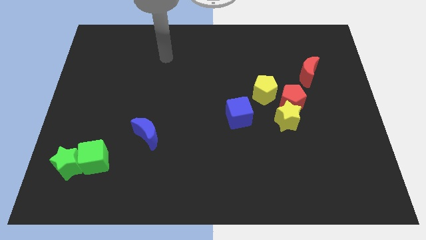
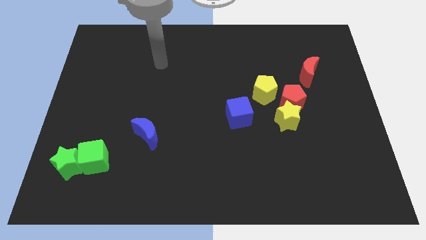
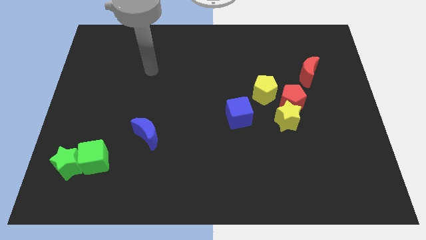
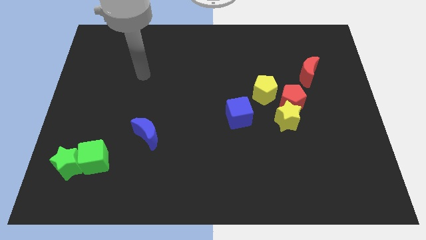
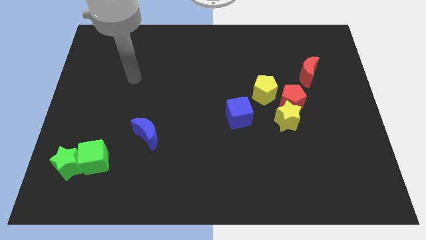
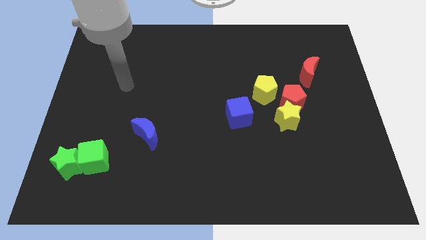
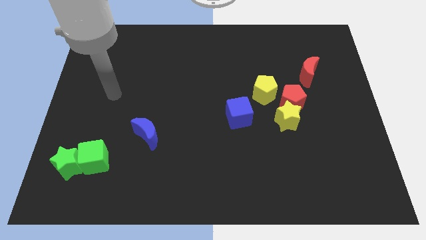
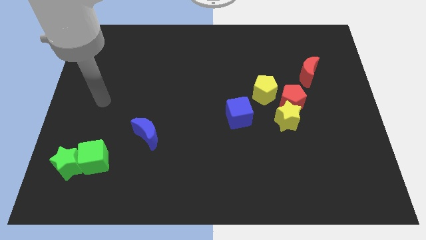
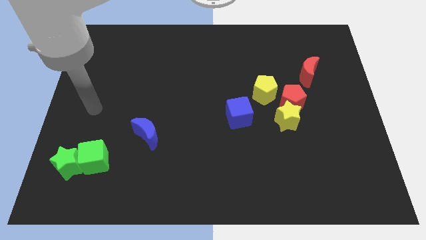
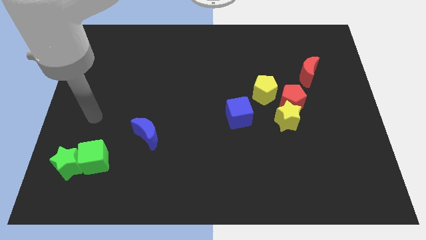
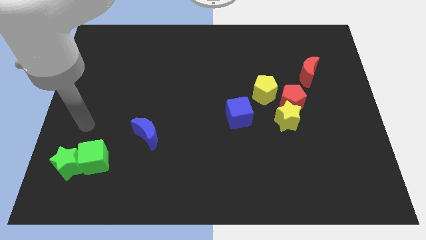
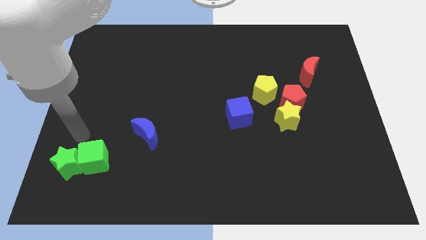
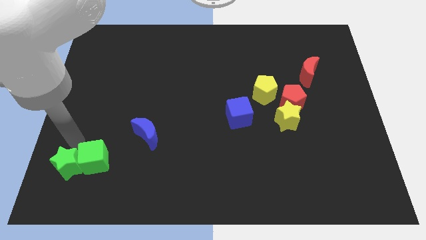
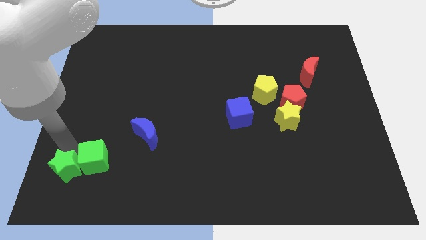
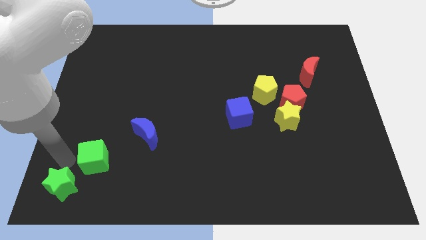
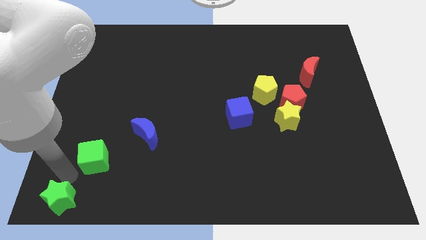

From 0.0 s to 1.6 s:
pull the green cube apart from the green star

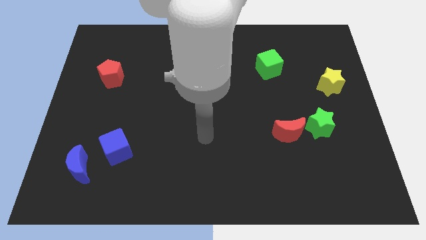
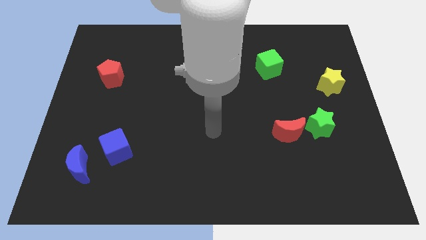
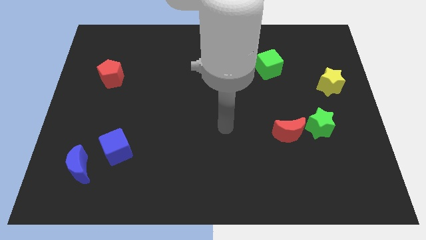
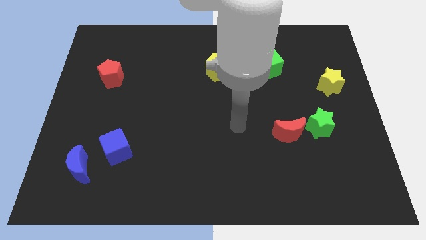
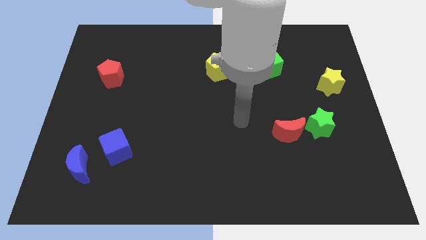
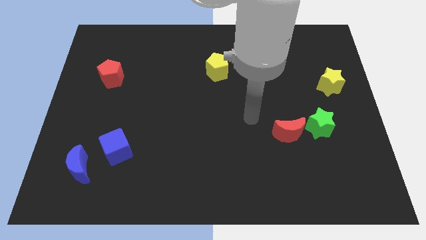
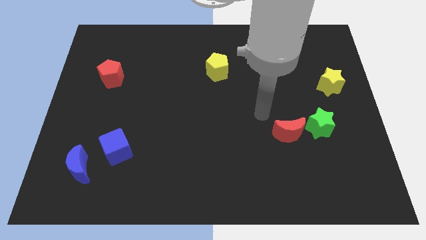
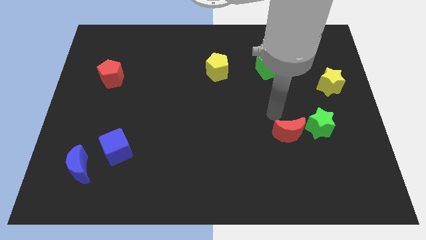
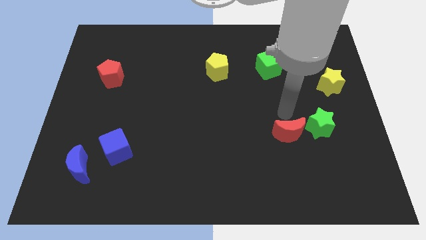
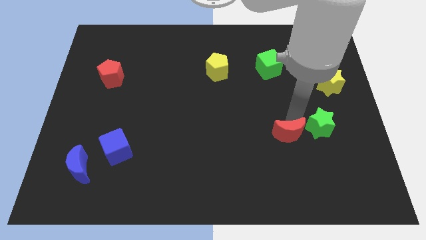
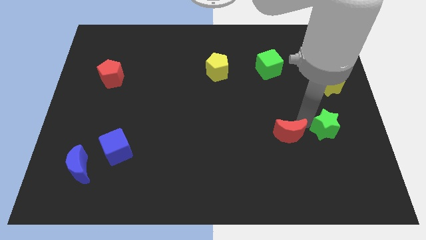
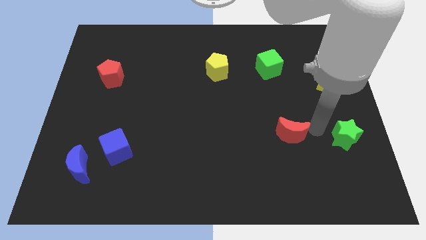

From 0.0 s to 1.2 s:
pull the red moon apart from the green star

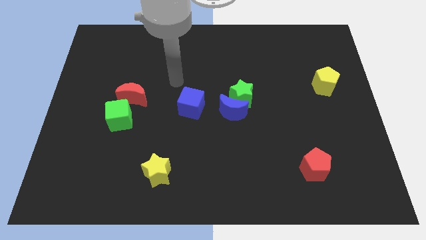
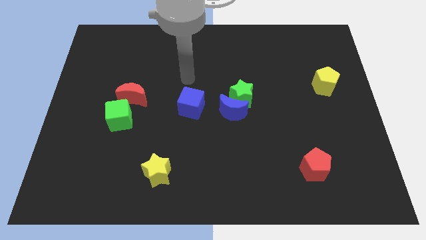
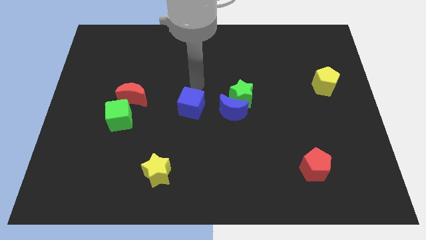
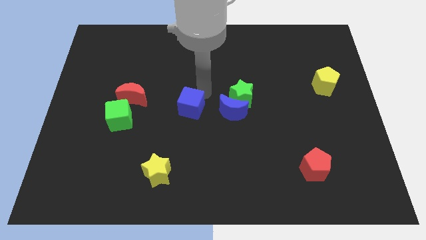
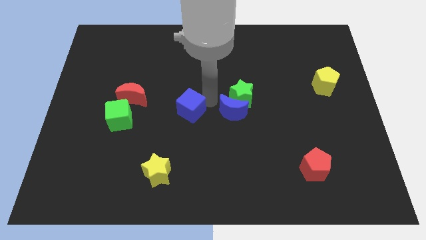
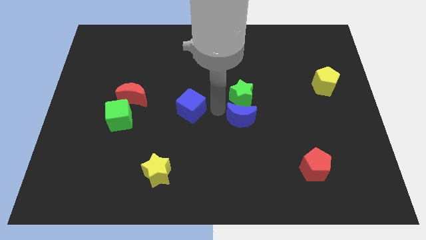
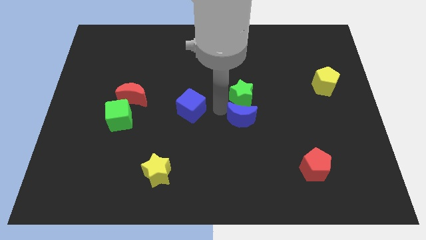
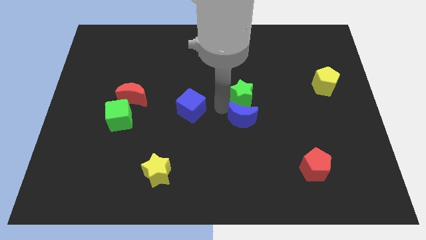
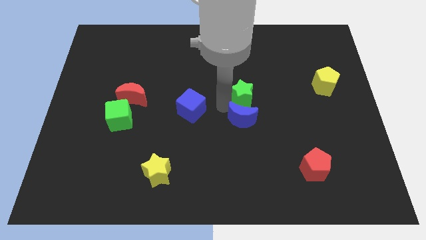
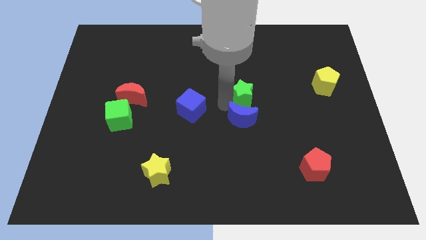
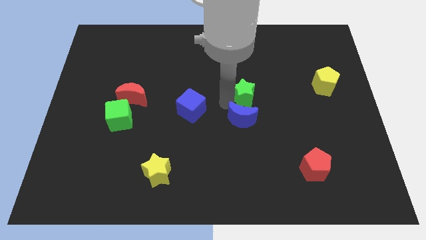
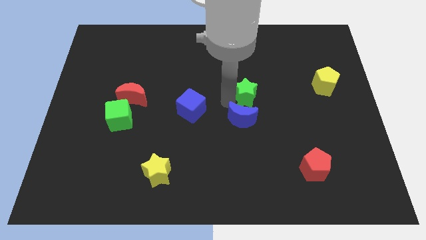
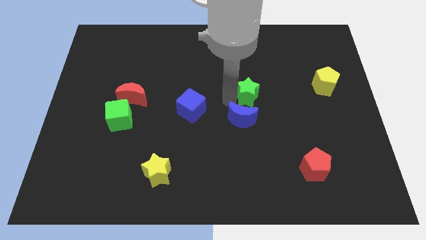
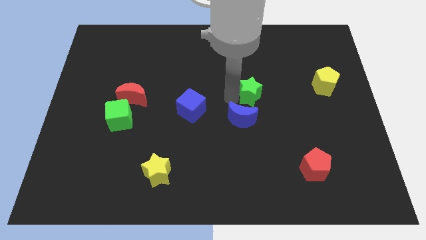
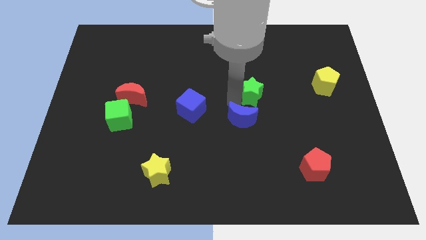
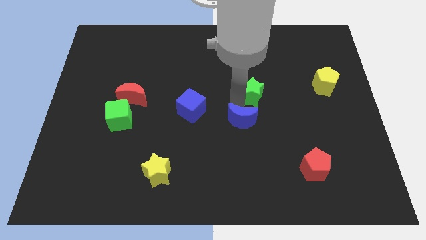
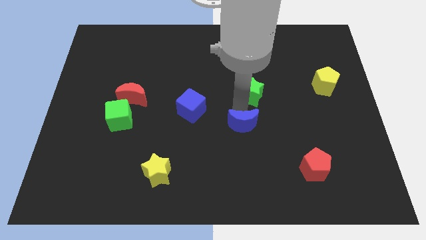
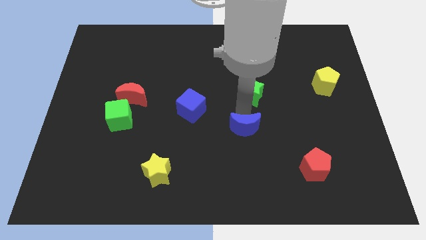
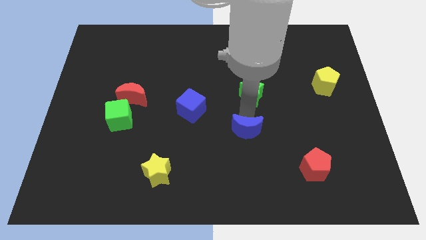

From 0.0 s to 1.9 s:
separate the green star from the blue moon

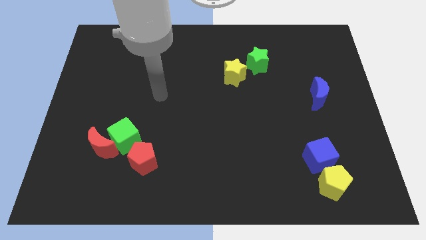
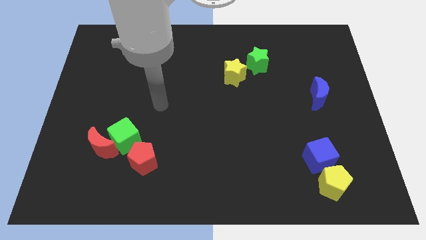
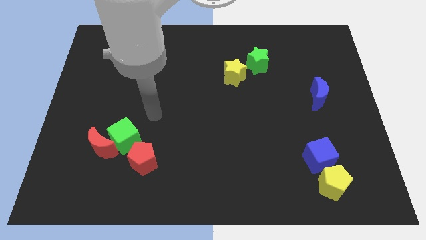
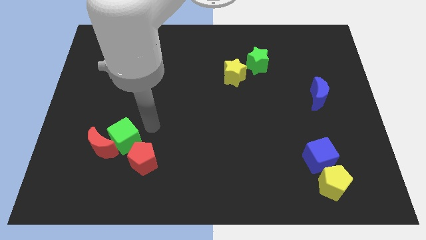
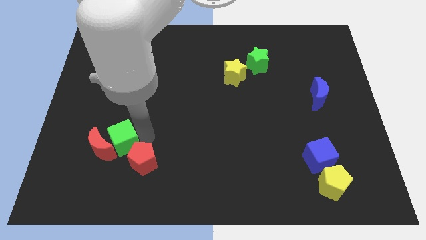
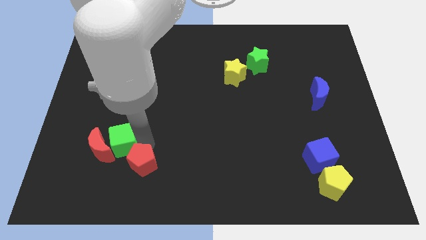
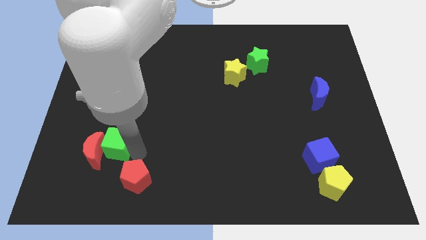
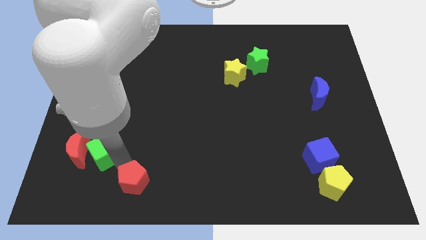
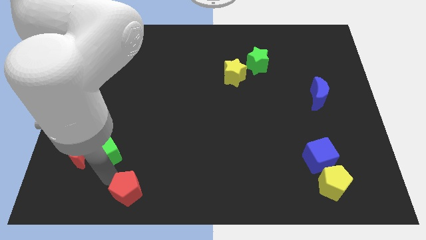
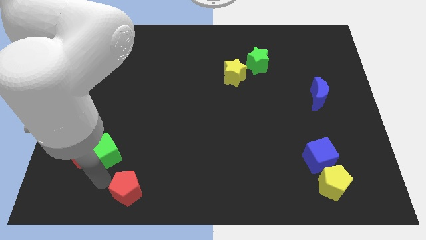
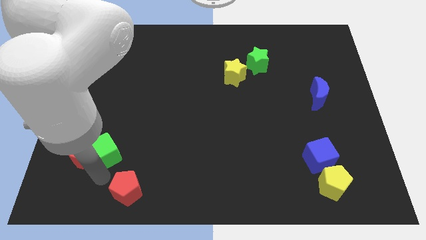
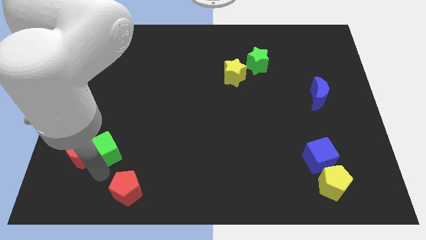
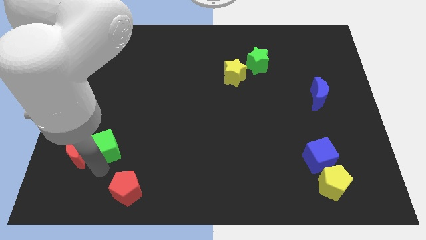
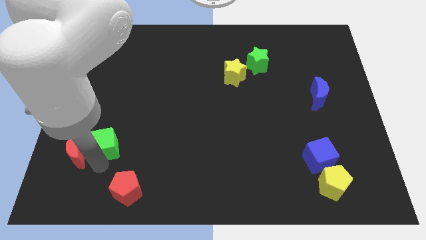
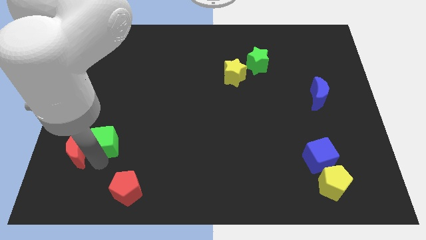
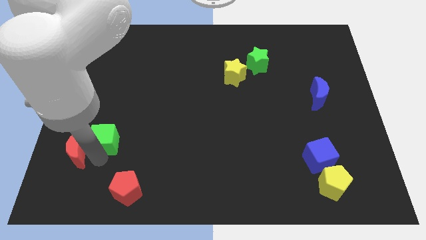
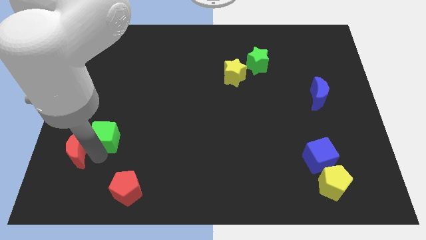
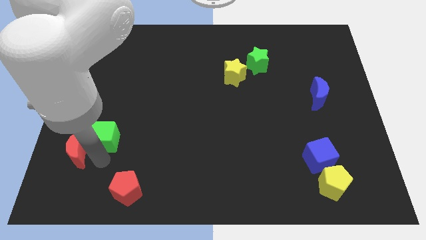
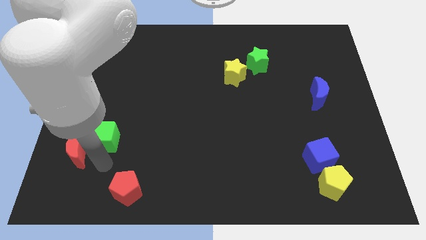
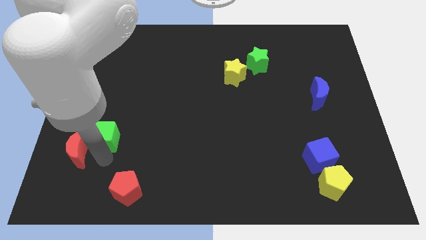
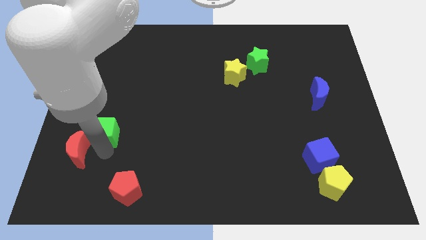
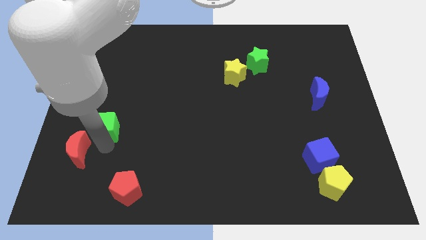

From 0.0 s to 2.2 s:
separate the green cube from the red moon and red pentagon

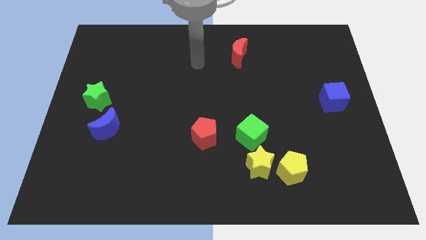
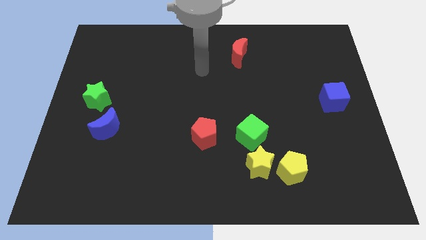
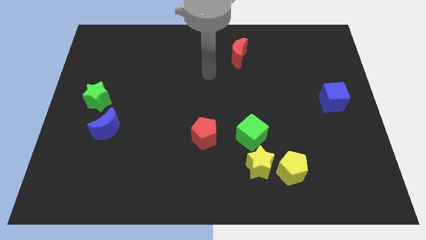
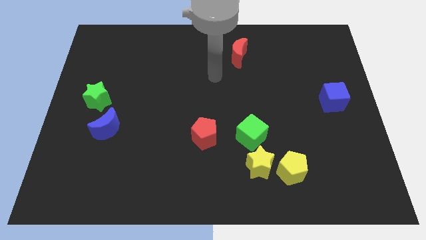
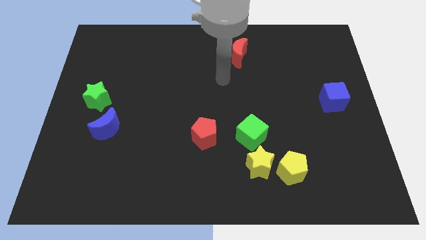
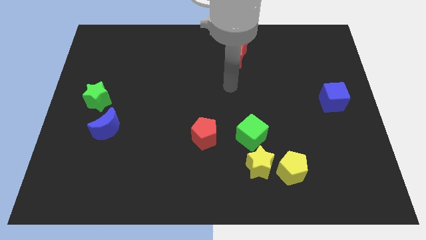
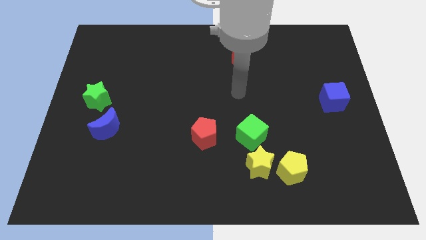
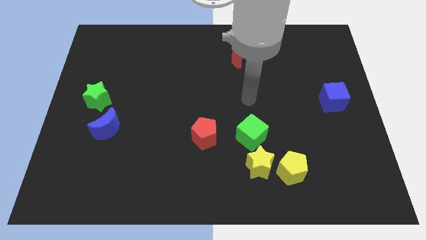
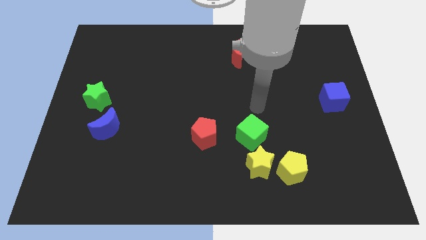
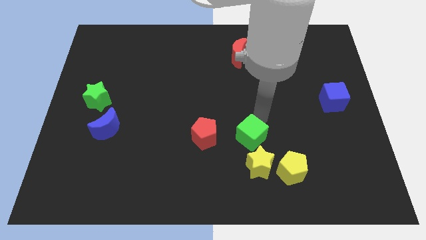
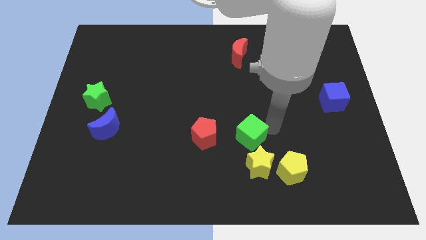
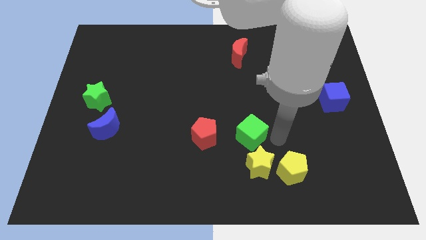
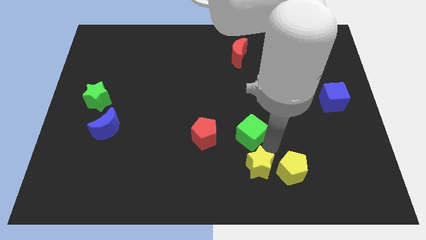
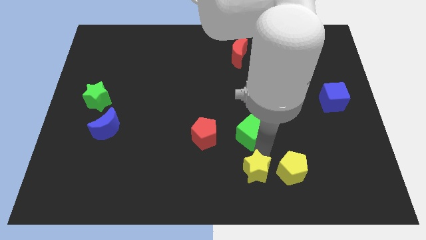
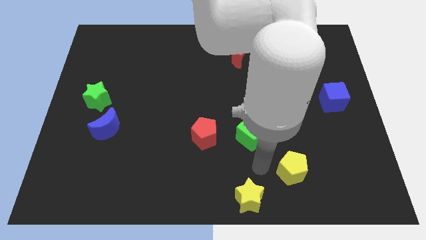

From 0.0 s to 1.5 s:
pull the yellow pentagon apart from the yellow star

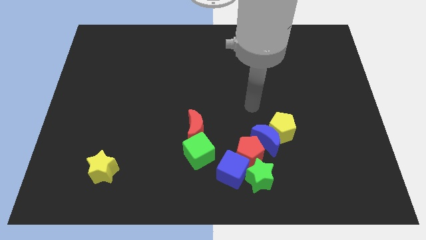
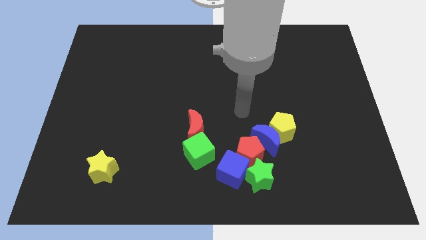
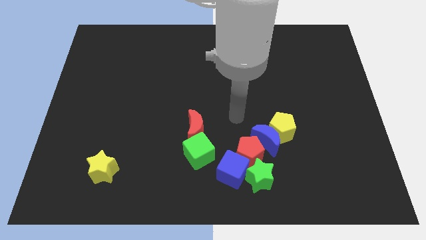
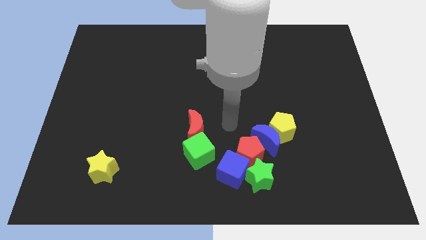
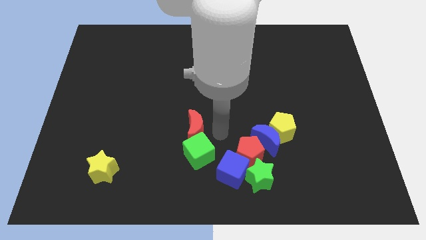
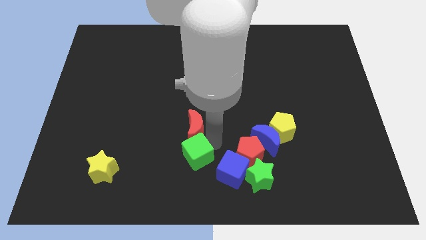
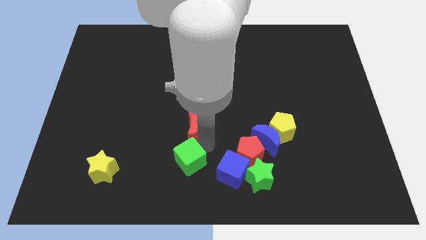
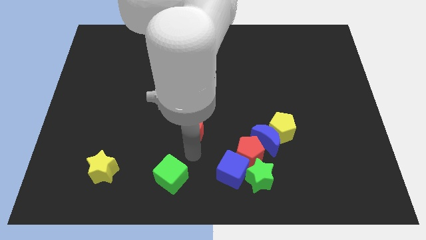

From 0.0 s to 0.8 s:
pull the red moon apart from the green cube

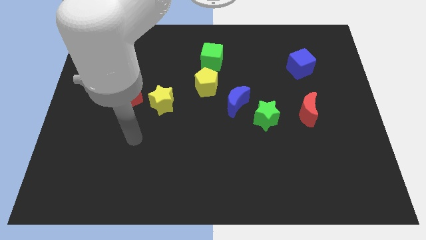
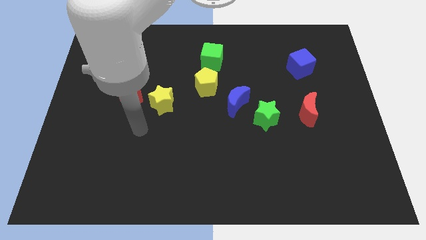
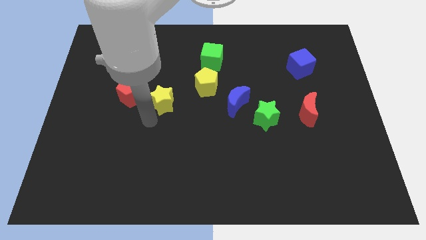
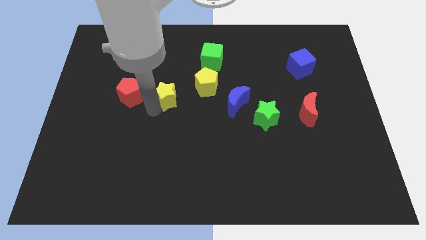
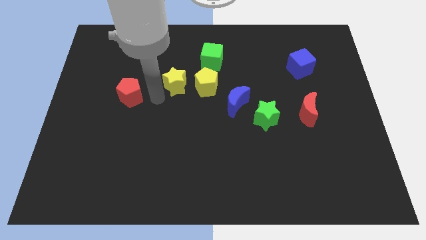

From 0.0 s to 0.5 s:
move the red pentagon away from the yellow star
